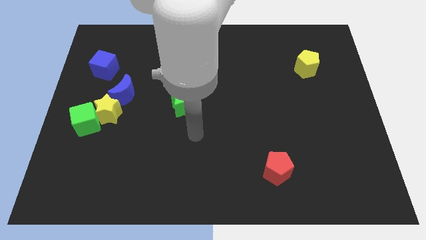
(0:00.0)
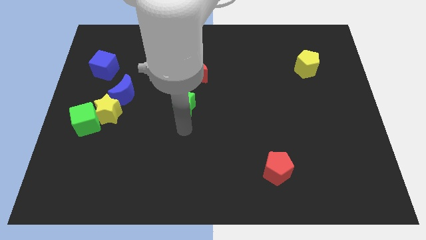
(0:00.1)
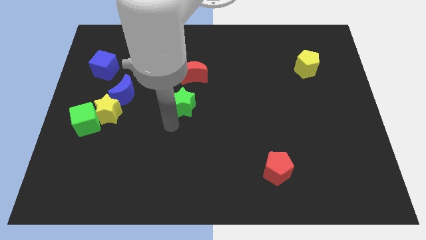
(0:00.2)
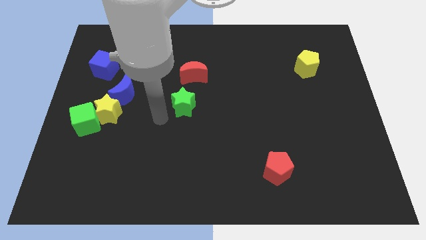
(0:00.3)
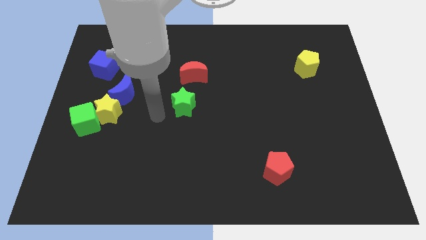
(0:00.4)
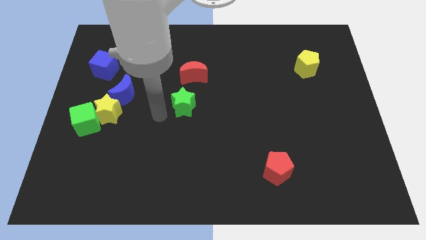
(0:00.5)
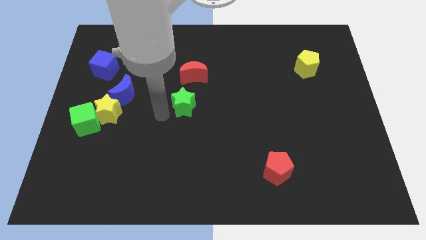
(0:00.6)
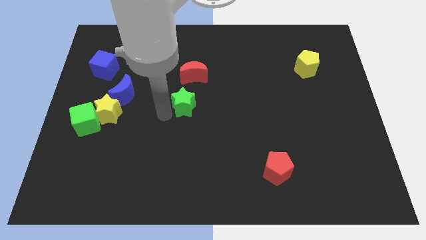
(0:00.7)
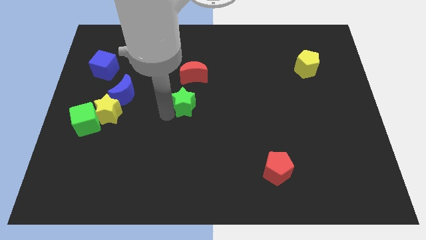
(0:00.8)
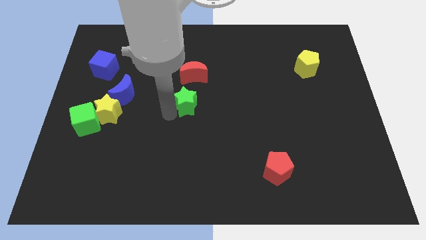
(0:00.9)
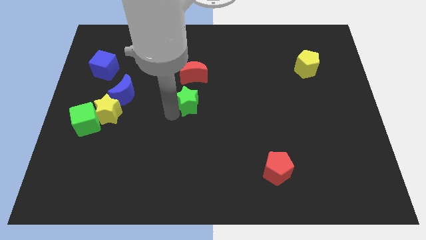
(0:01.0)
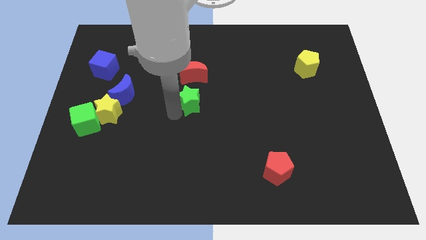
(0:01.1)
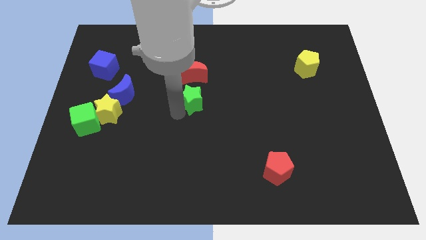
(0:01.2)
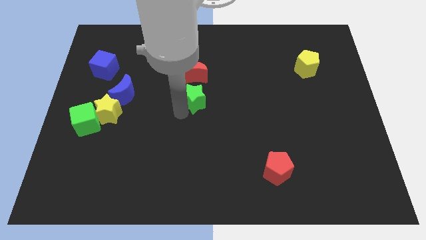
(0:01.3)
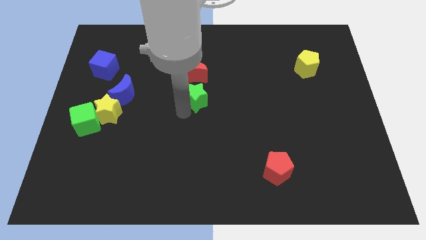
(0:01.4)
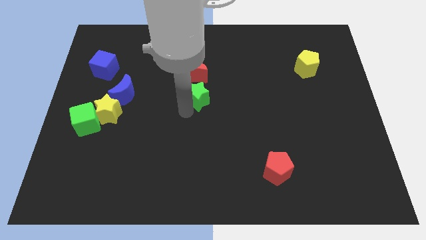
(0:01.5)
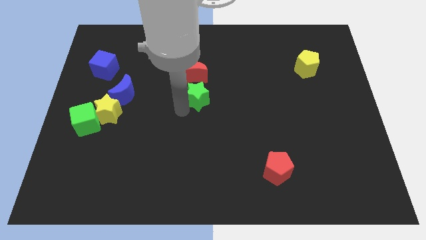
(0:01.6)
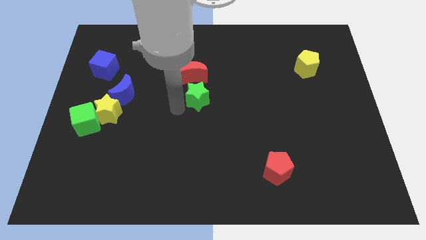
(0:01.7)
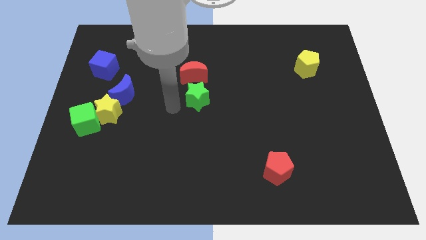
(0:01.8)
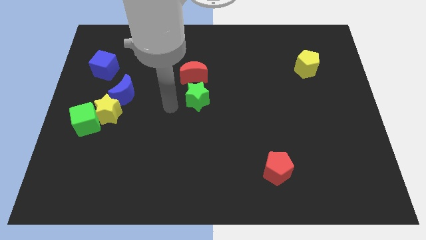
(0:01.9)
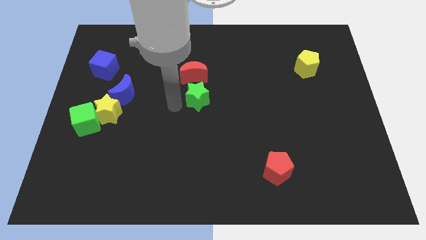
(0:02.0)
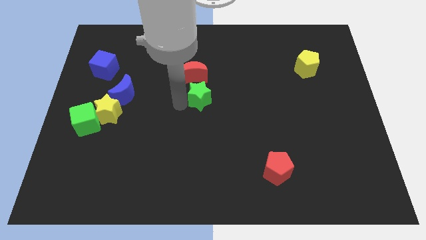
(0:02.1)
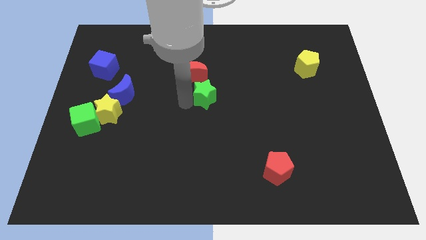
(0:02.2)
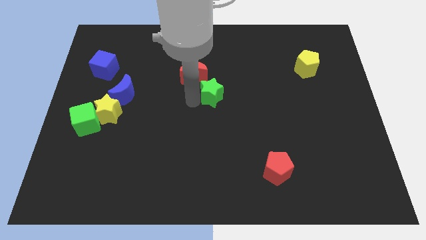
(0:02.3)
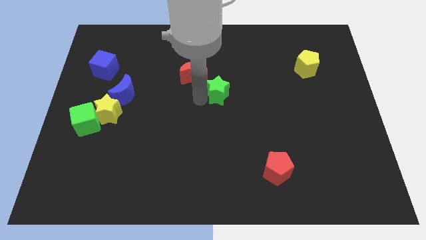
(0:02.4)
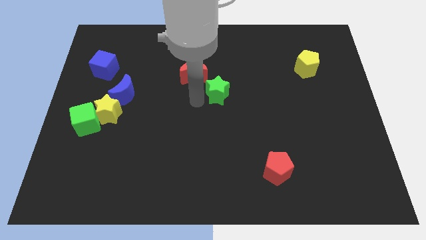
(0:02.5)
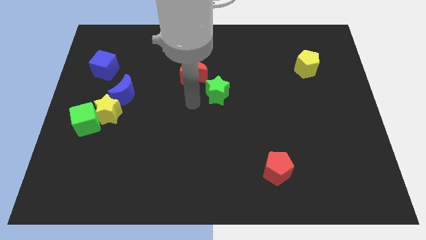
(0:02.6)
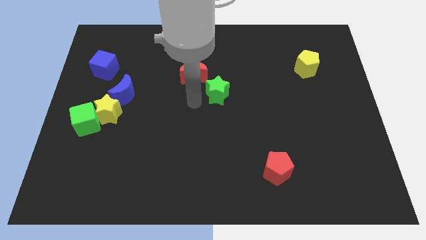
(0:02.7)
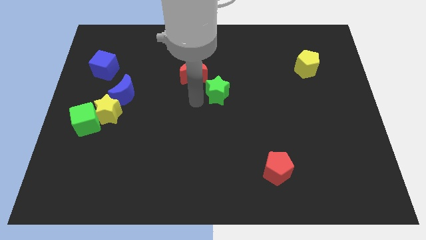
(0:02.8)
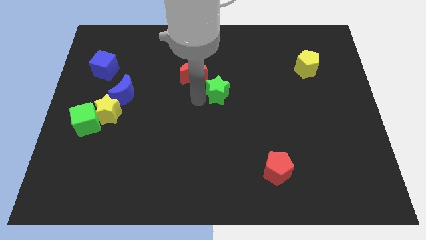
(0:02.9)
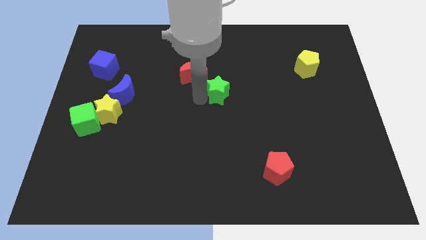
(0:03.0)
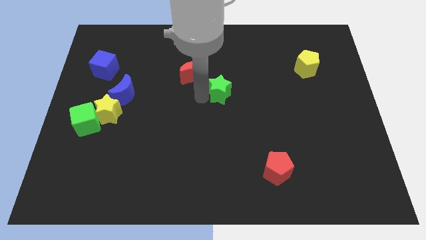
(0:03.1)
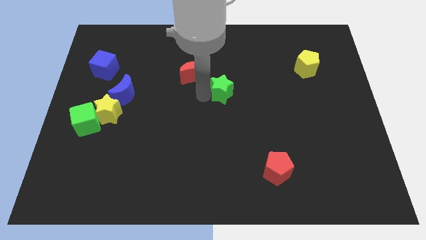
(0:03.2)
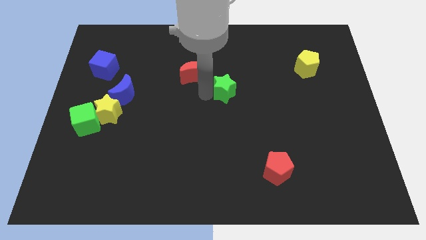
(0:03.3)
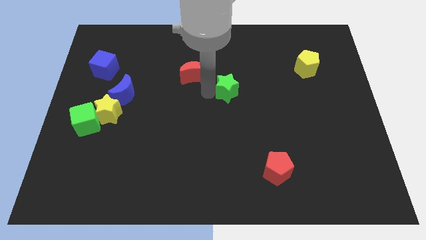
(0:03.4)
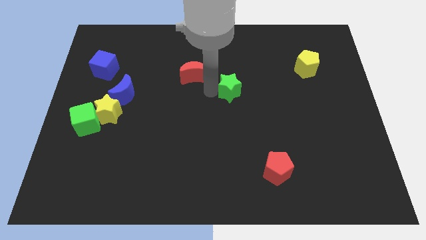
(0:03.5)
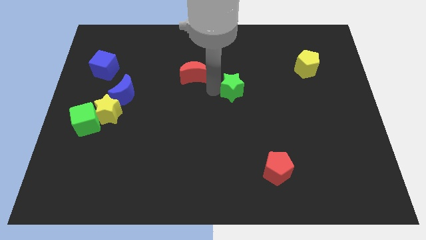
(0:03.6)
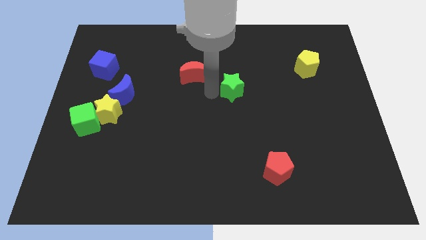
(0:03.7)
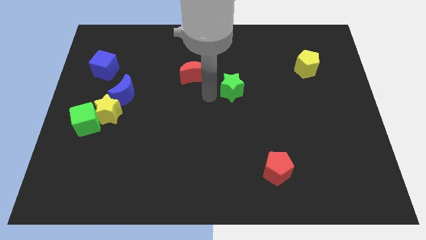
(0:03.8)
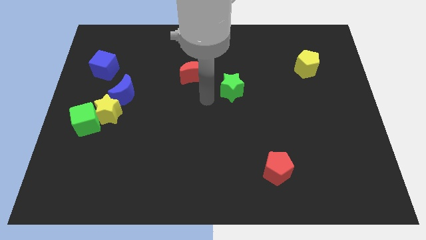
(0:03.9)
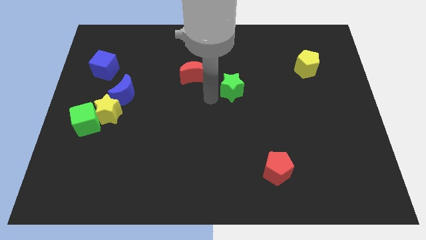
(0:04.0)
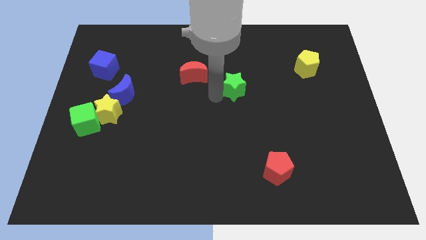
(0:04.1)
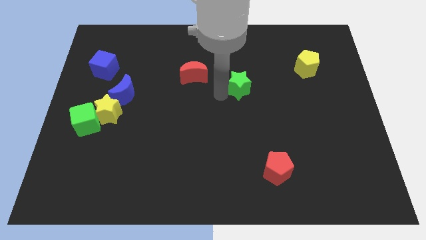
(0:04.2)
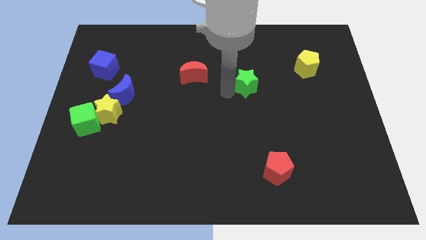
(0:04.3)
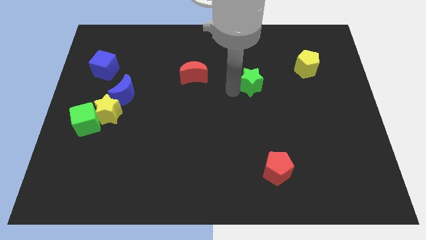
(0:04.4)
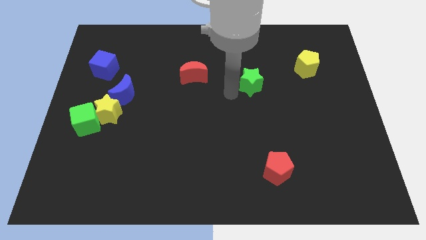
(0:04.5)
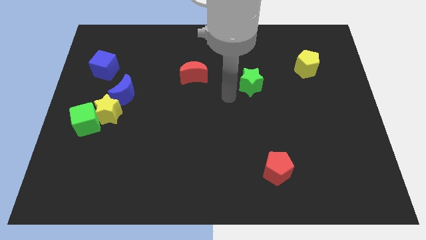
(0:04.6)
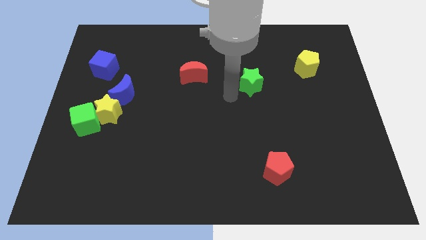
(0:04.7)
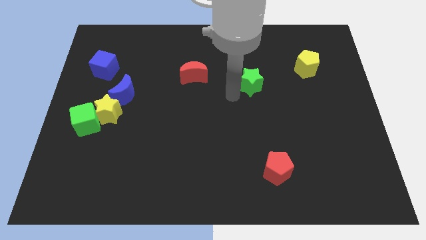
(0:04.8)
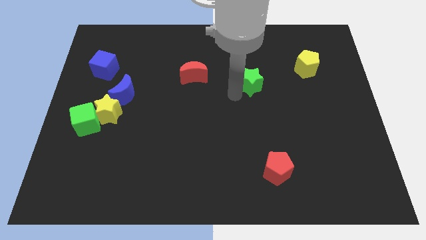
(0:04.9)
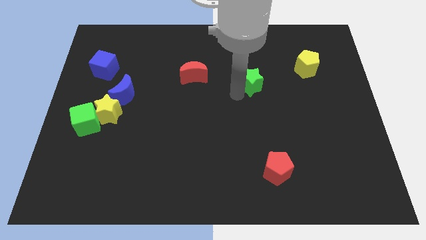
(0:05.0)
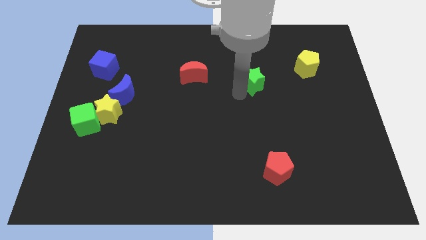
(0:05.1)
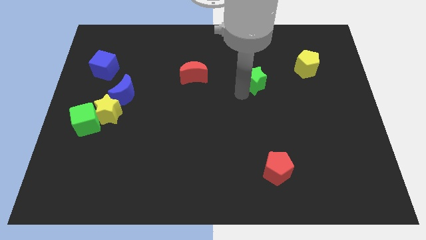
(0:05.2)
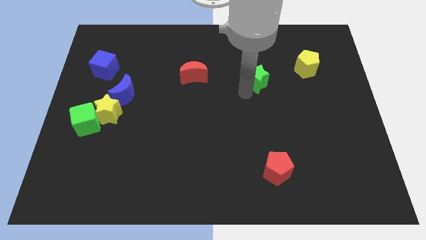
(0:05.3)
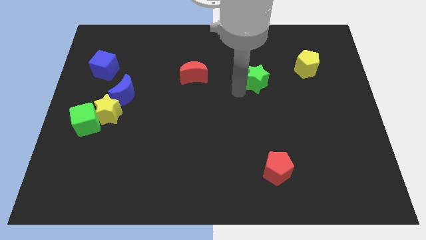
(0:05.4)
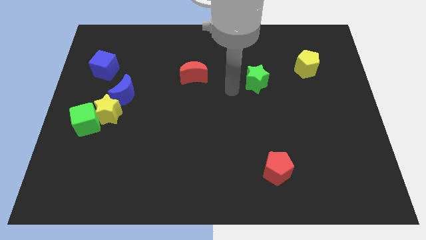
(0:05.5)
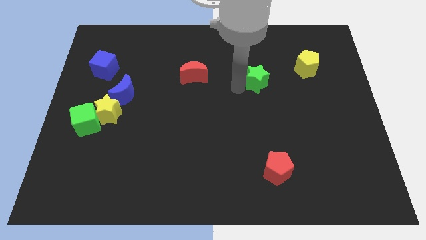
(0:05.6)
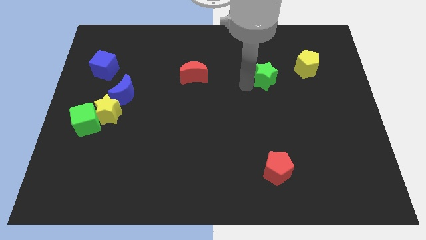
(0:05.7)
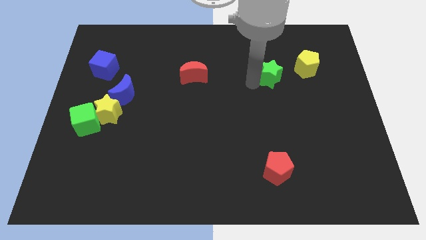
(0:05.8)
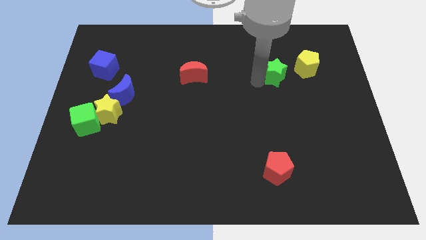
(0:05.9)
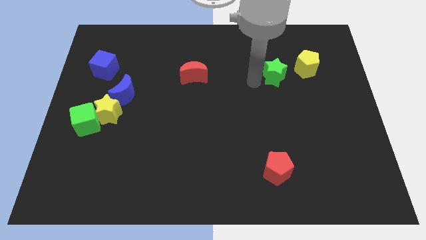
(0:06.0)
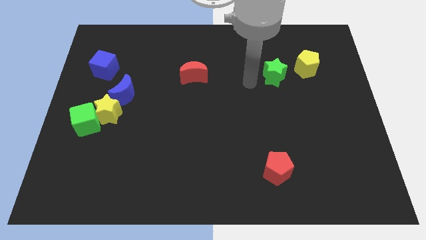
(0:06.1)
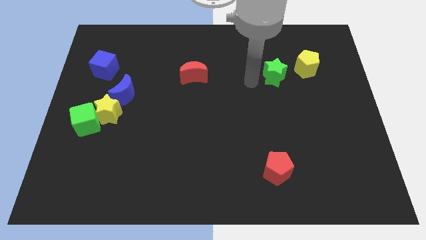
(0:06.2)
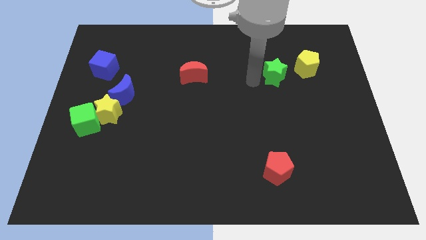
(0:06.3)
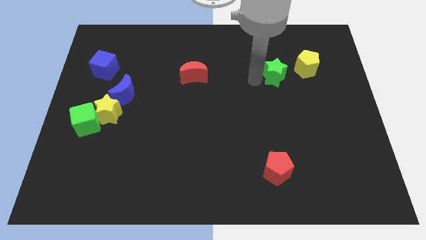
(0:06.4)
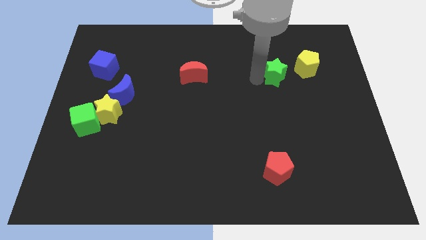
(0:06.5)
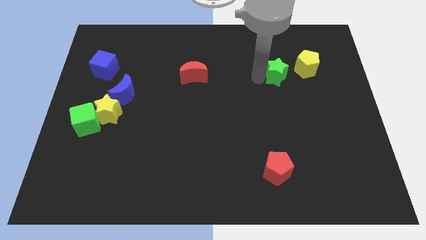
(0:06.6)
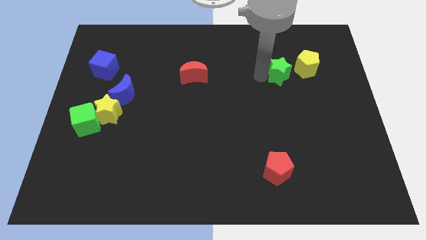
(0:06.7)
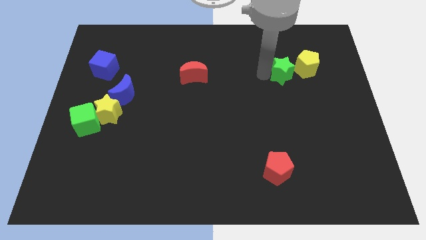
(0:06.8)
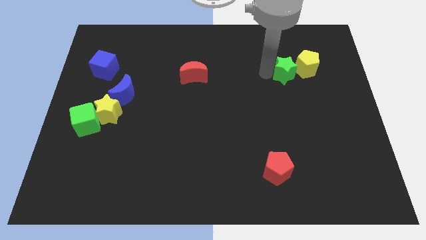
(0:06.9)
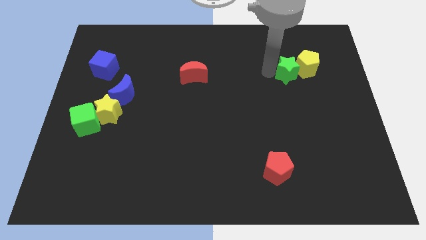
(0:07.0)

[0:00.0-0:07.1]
push the green star next to the yellow pentagon

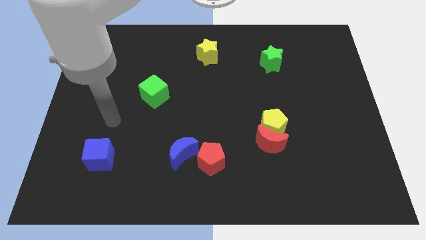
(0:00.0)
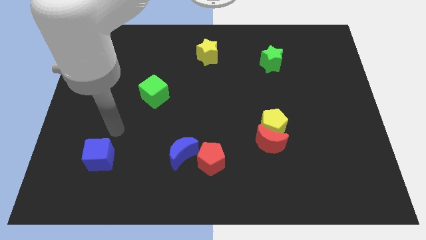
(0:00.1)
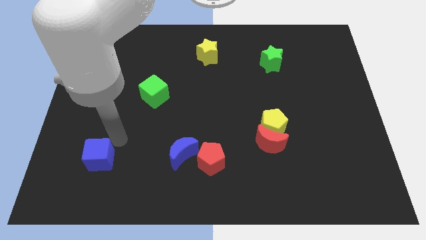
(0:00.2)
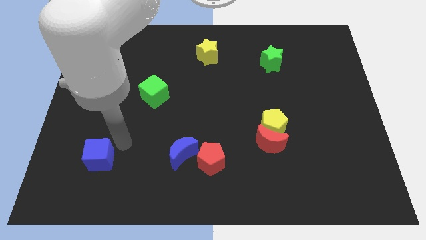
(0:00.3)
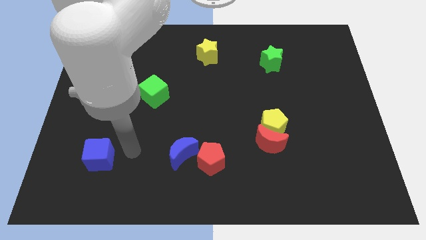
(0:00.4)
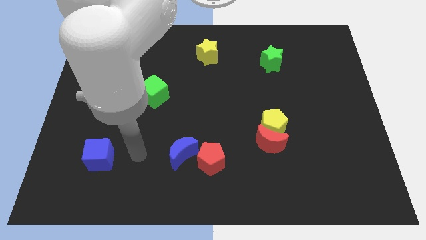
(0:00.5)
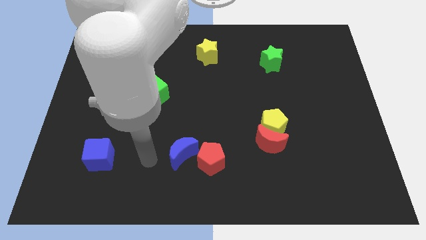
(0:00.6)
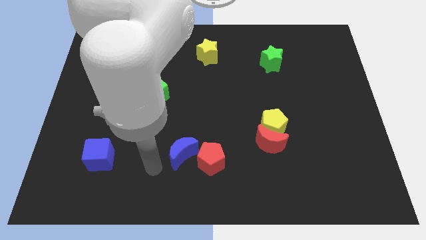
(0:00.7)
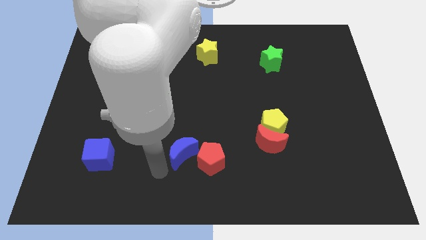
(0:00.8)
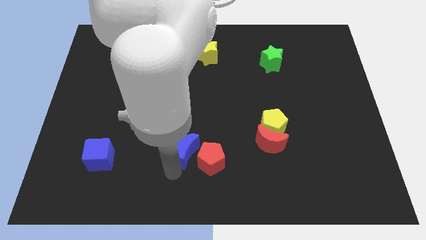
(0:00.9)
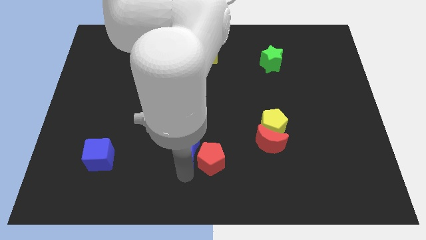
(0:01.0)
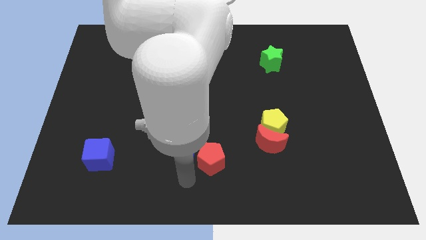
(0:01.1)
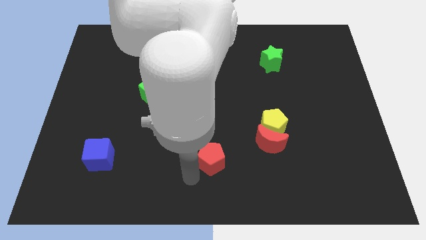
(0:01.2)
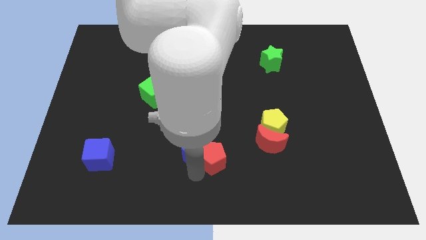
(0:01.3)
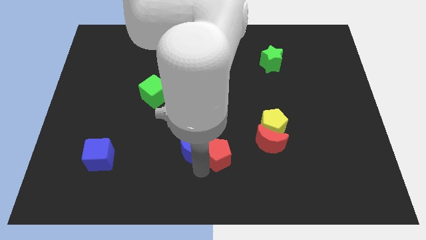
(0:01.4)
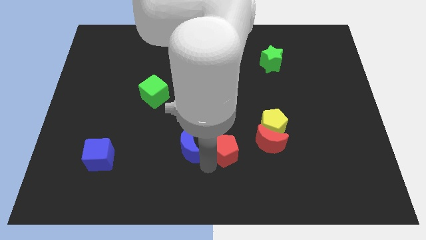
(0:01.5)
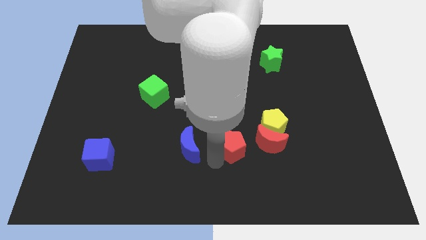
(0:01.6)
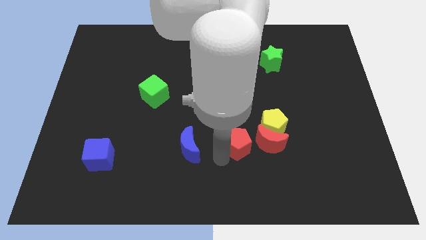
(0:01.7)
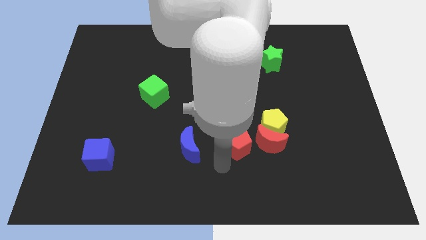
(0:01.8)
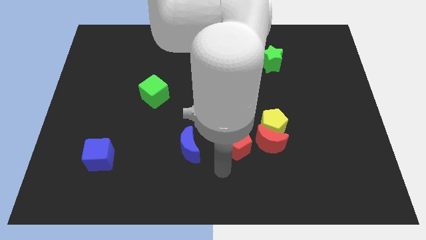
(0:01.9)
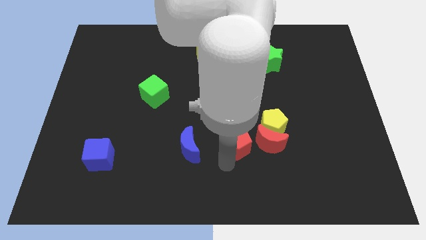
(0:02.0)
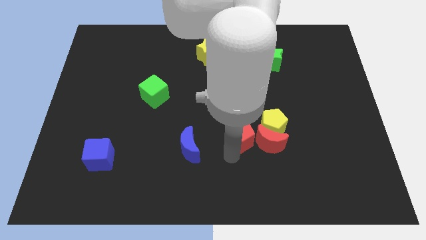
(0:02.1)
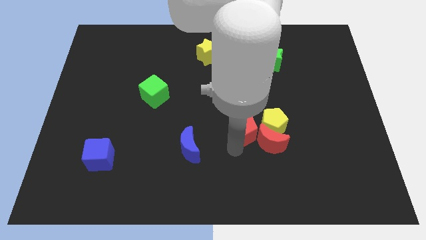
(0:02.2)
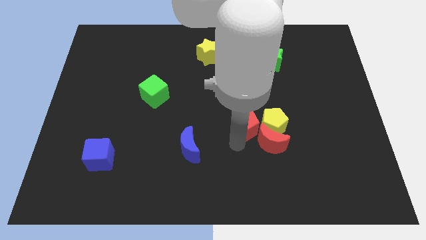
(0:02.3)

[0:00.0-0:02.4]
move the red pentagon close to the yellow pentagon
